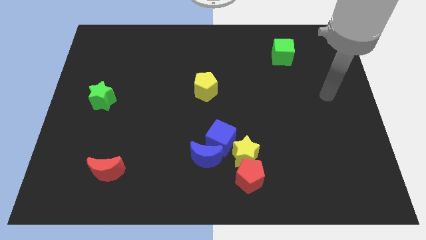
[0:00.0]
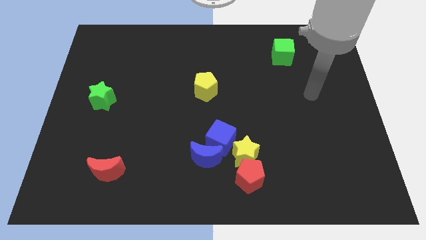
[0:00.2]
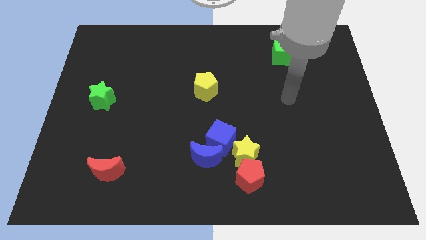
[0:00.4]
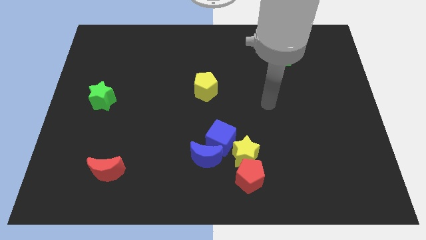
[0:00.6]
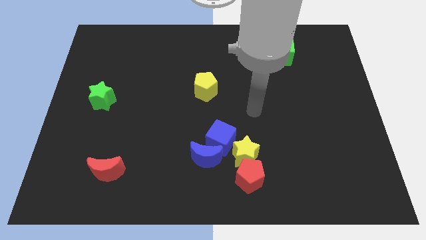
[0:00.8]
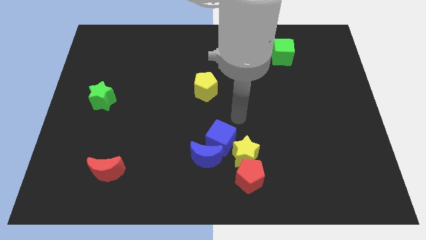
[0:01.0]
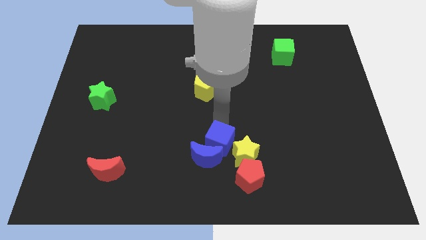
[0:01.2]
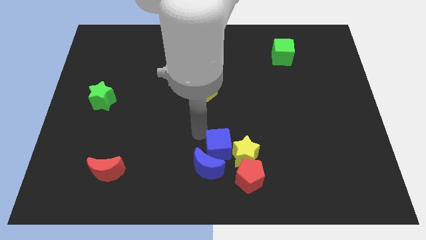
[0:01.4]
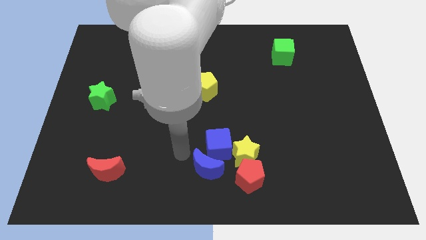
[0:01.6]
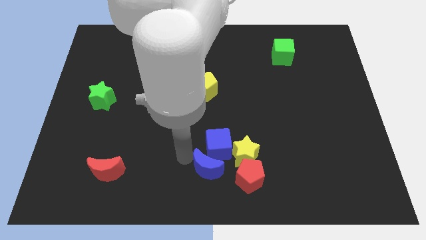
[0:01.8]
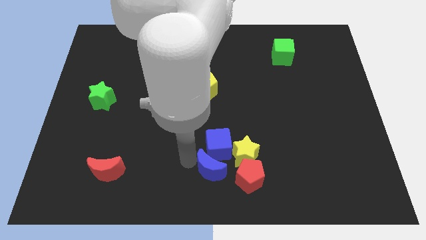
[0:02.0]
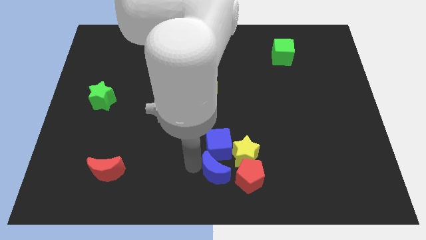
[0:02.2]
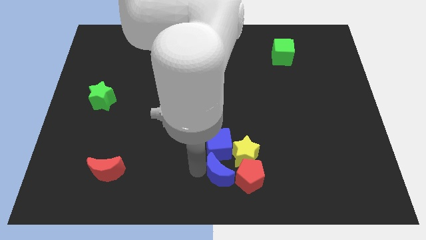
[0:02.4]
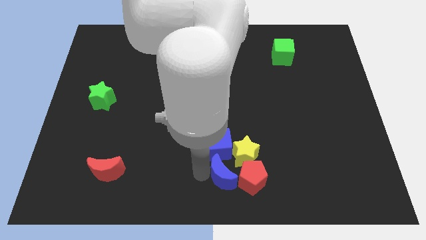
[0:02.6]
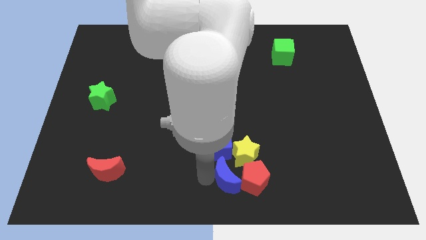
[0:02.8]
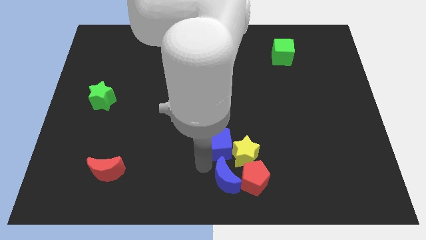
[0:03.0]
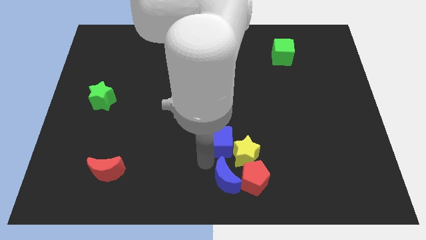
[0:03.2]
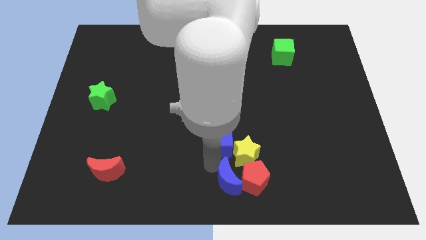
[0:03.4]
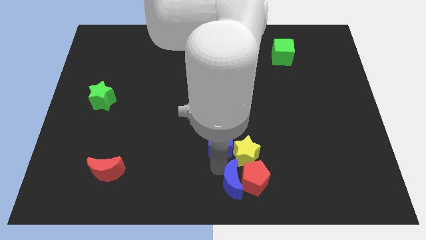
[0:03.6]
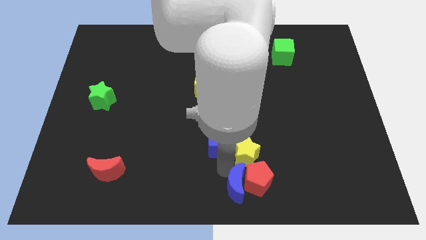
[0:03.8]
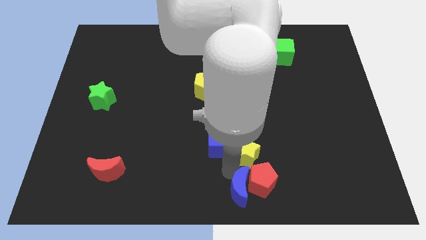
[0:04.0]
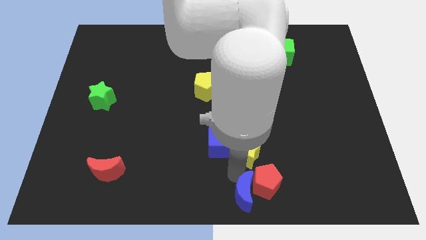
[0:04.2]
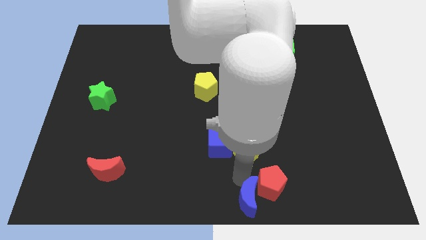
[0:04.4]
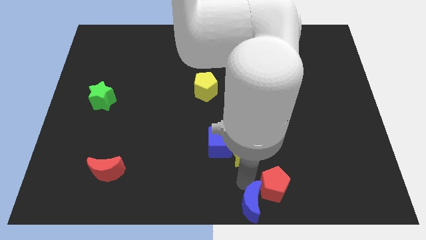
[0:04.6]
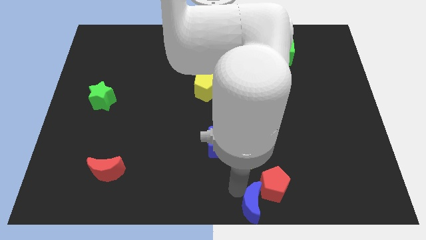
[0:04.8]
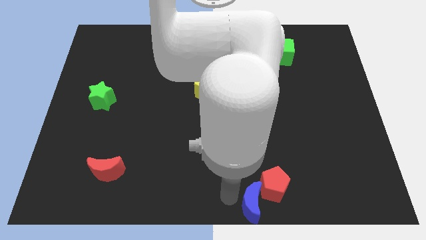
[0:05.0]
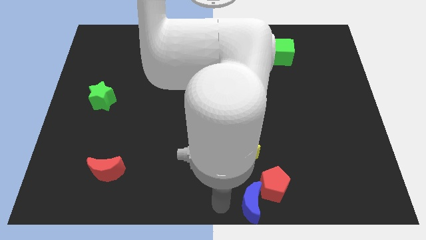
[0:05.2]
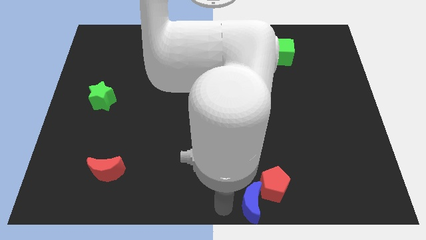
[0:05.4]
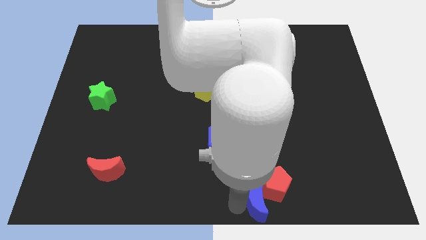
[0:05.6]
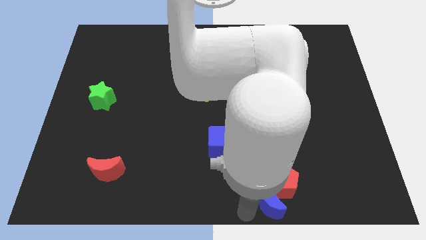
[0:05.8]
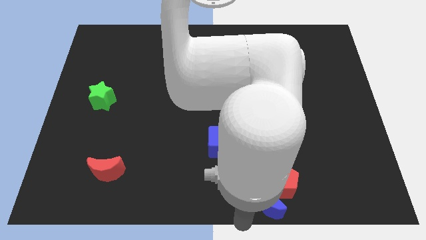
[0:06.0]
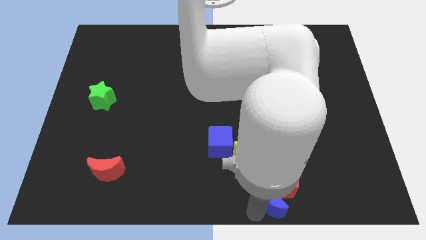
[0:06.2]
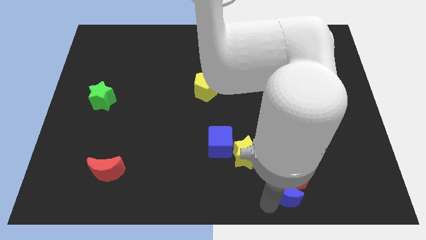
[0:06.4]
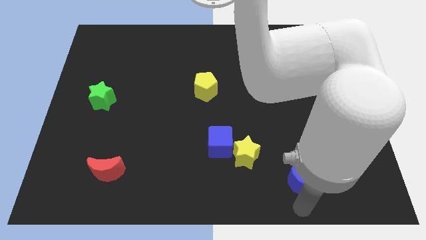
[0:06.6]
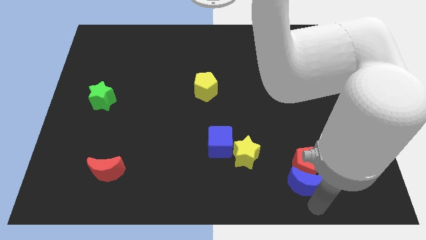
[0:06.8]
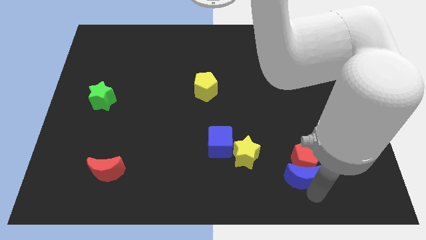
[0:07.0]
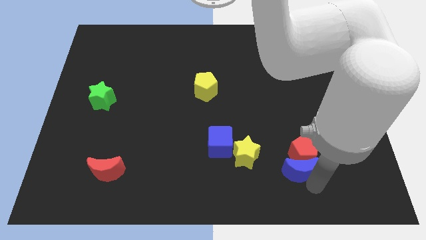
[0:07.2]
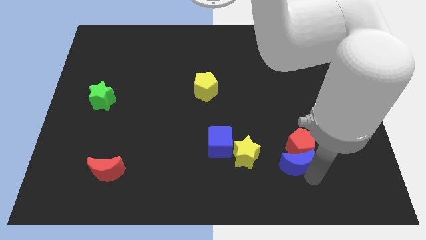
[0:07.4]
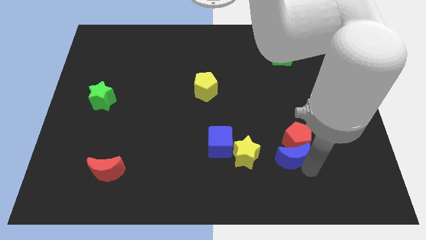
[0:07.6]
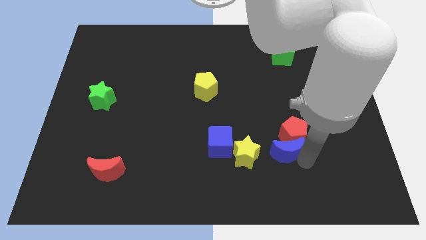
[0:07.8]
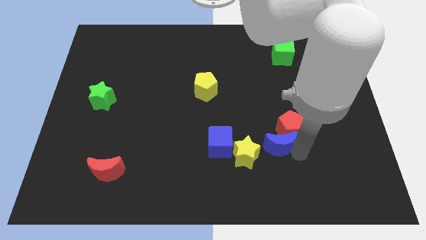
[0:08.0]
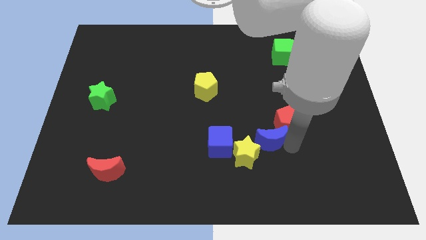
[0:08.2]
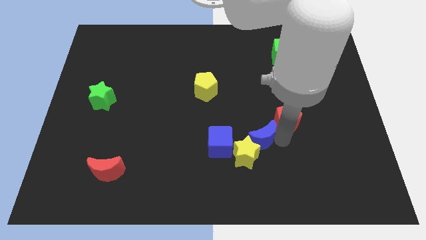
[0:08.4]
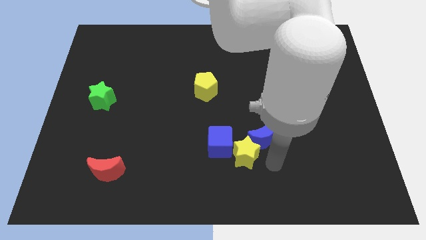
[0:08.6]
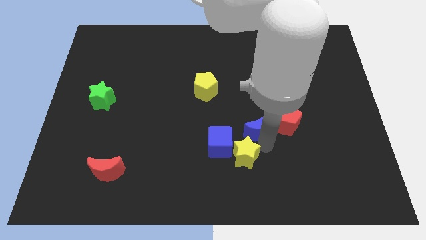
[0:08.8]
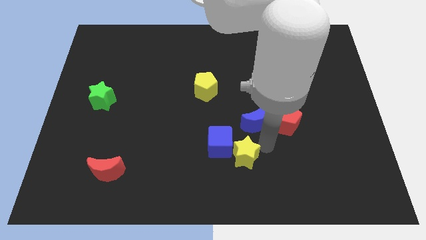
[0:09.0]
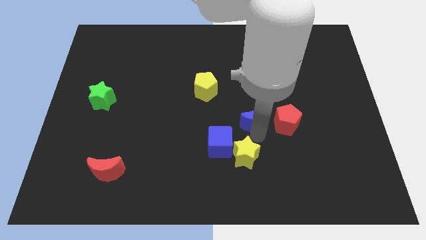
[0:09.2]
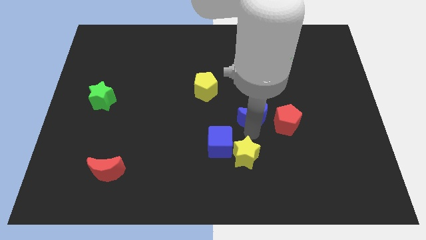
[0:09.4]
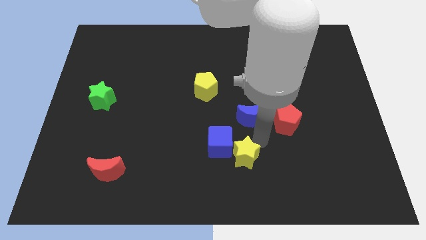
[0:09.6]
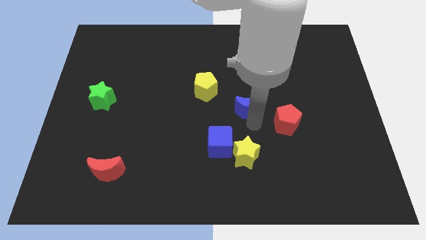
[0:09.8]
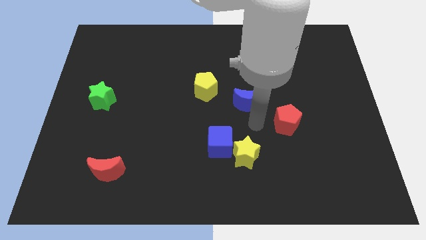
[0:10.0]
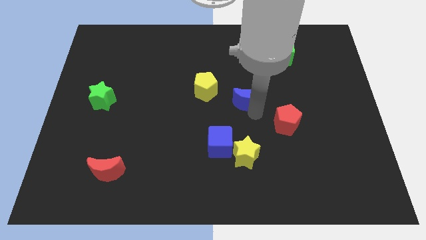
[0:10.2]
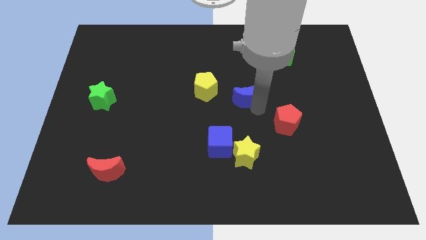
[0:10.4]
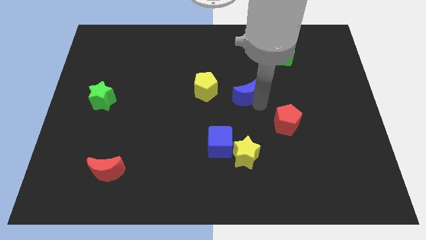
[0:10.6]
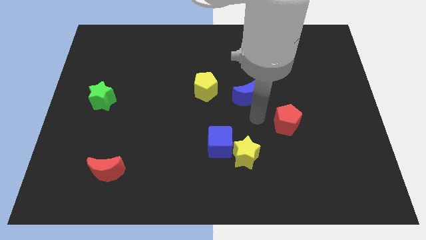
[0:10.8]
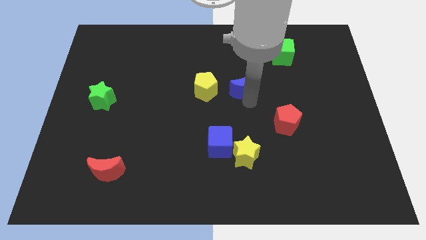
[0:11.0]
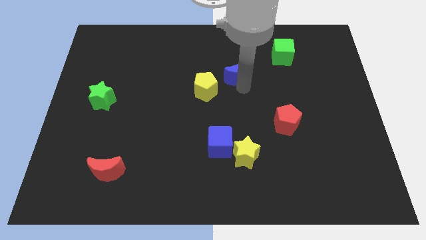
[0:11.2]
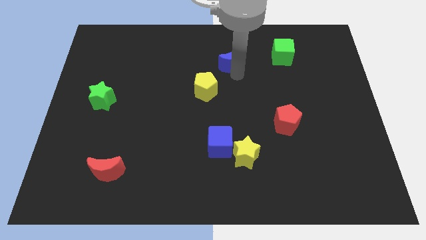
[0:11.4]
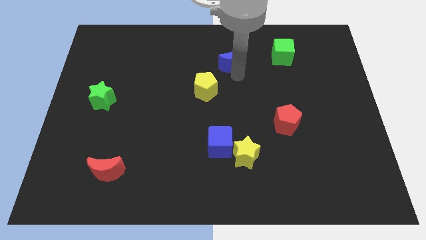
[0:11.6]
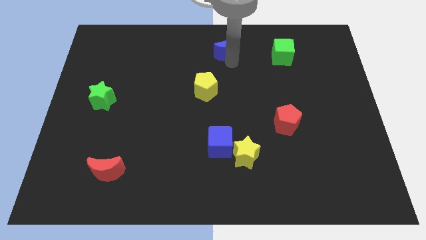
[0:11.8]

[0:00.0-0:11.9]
move the blue moon to the towards your base
